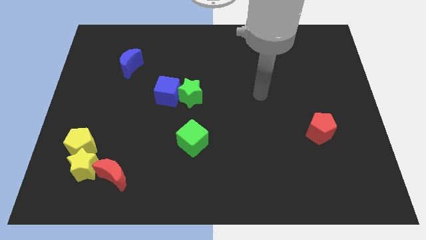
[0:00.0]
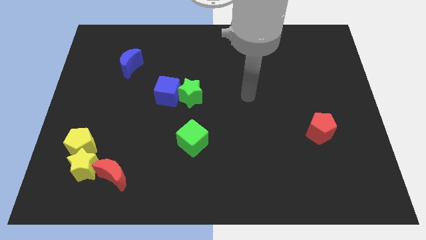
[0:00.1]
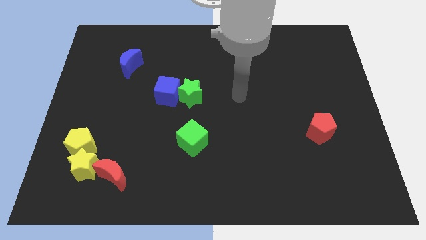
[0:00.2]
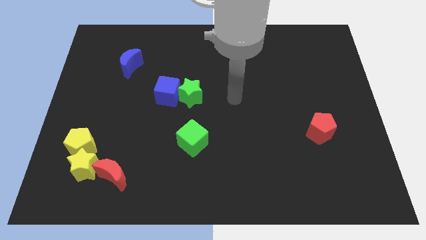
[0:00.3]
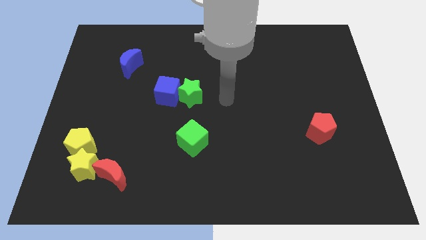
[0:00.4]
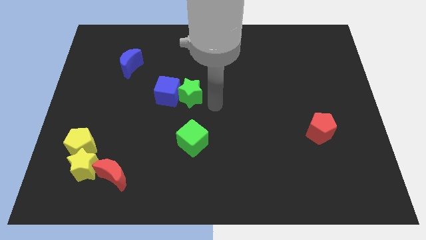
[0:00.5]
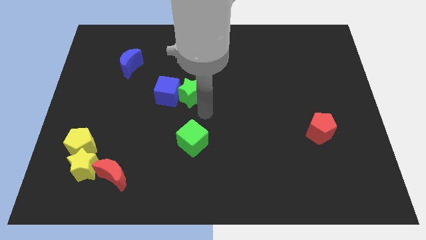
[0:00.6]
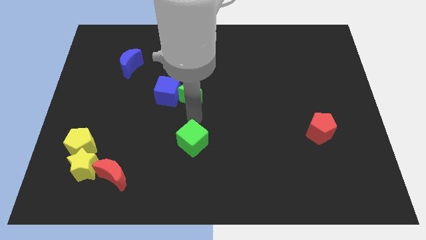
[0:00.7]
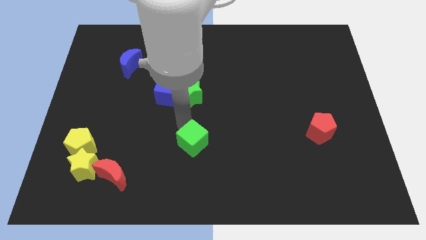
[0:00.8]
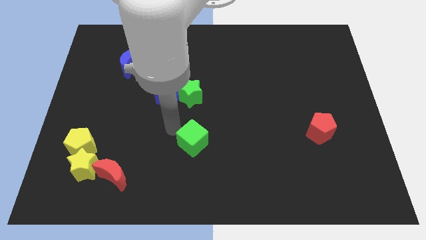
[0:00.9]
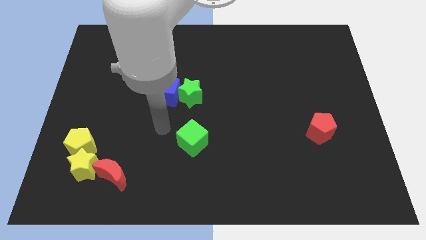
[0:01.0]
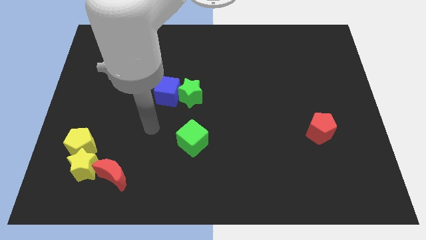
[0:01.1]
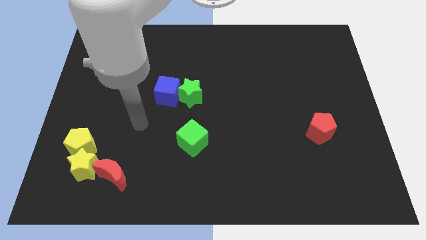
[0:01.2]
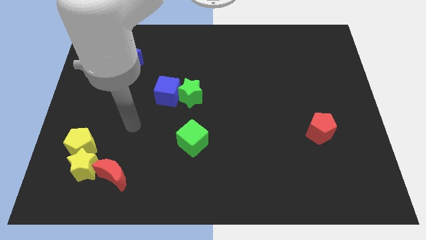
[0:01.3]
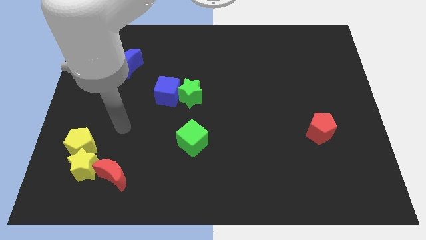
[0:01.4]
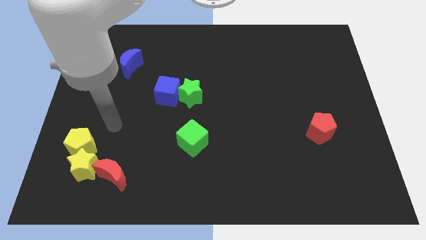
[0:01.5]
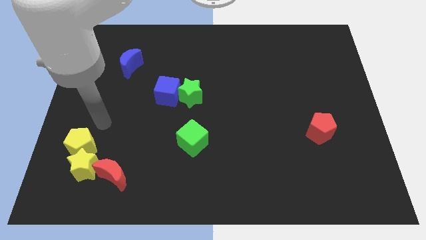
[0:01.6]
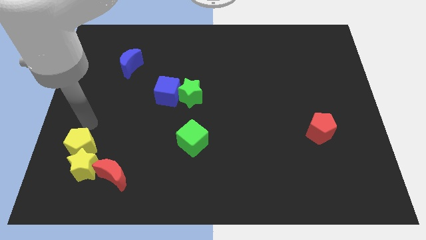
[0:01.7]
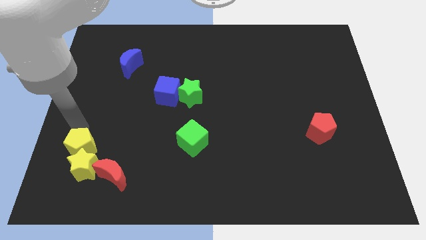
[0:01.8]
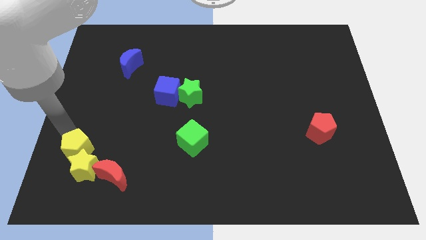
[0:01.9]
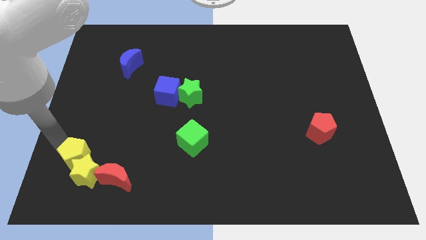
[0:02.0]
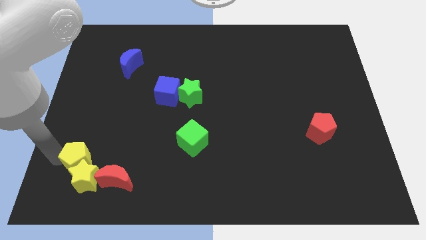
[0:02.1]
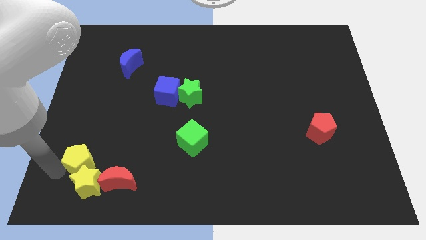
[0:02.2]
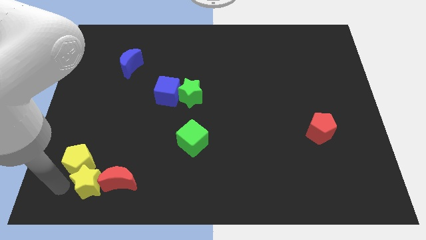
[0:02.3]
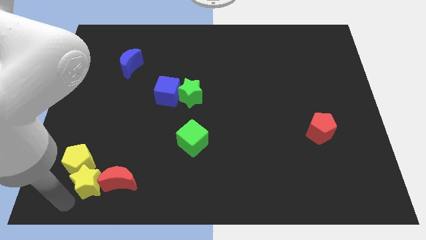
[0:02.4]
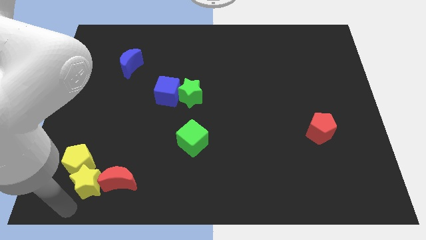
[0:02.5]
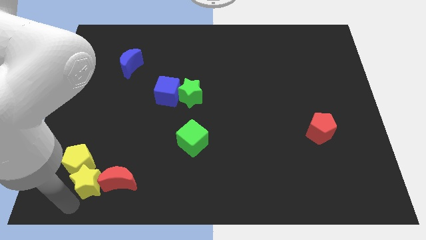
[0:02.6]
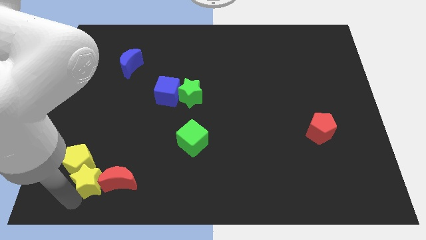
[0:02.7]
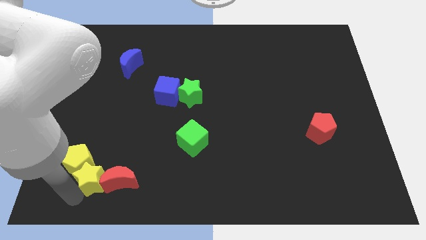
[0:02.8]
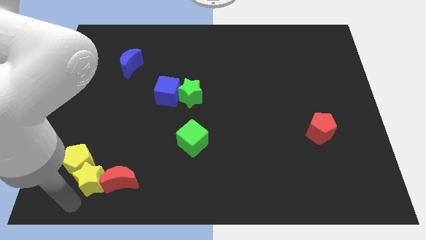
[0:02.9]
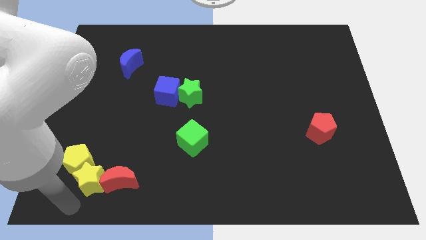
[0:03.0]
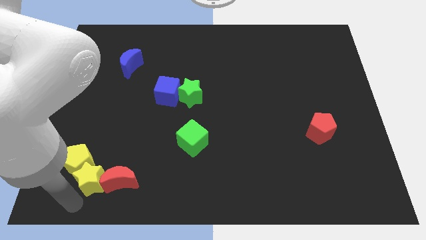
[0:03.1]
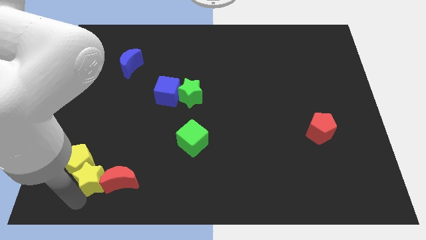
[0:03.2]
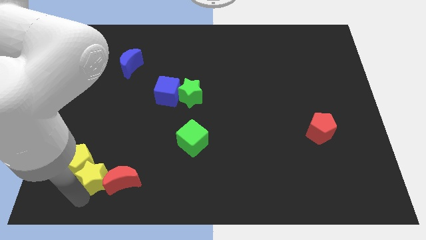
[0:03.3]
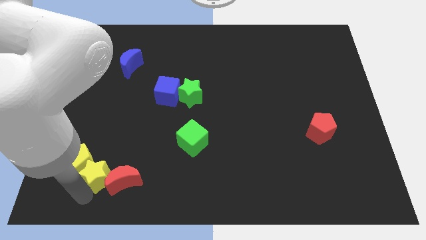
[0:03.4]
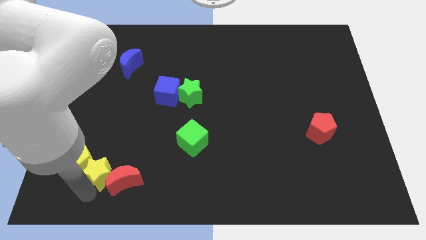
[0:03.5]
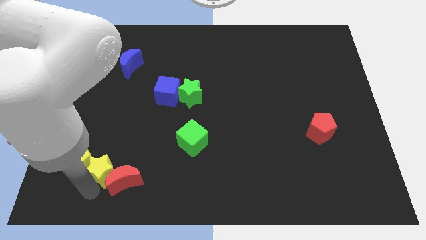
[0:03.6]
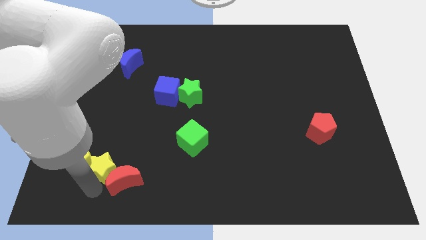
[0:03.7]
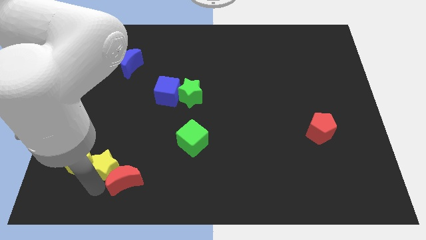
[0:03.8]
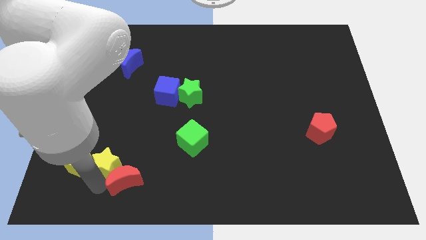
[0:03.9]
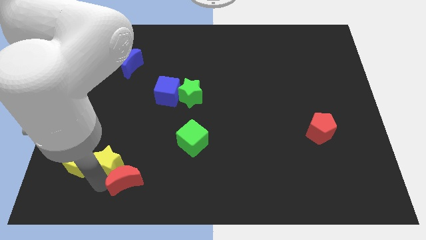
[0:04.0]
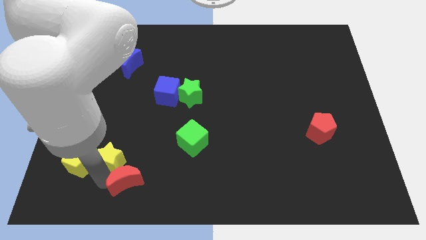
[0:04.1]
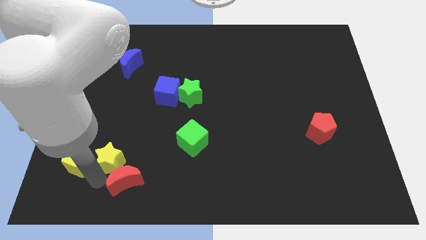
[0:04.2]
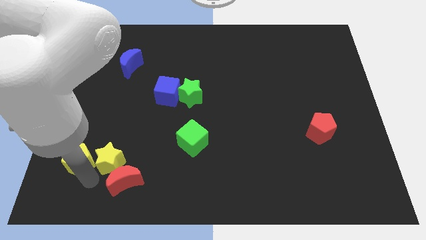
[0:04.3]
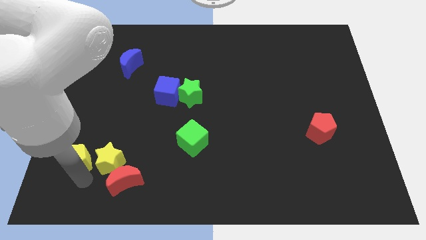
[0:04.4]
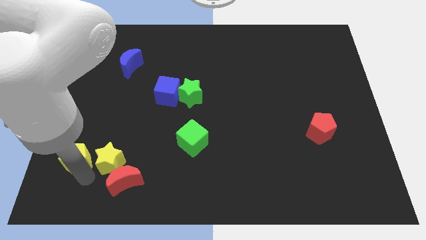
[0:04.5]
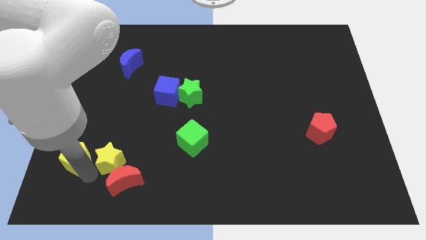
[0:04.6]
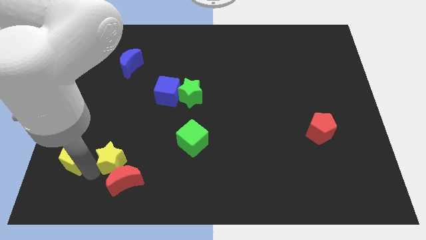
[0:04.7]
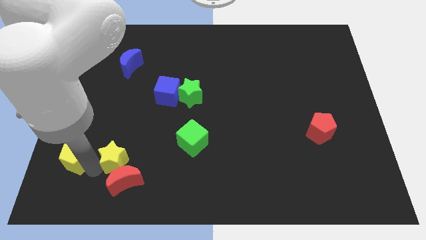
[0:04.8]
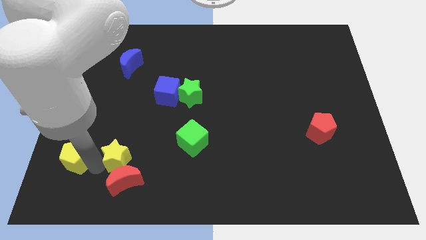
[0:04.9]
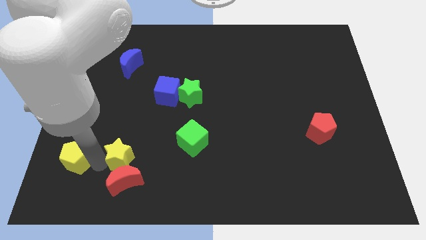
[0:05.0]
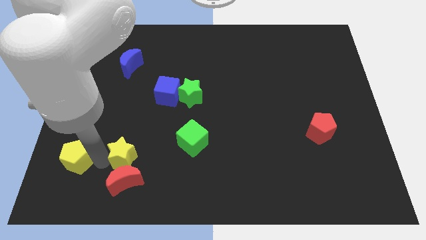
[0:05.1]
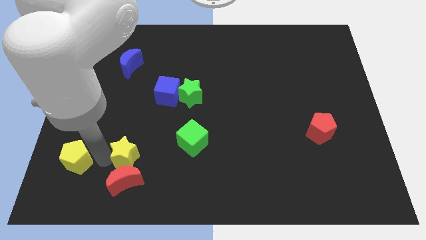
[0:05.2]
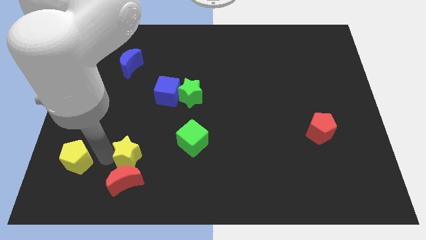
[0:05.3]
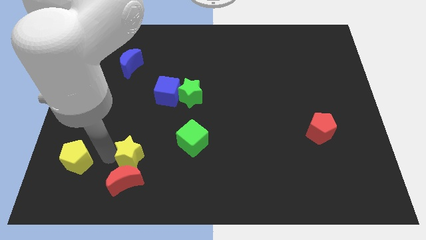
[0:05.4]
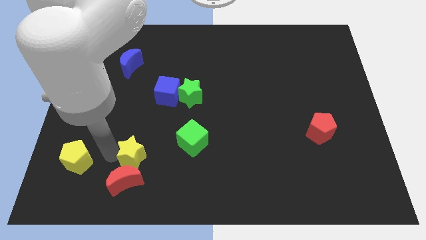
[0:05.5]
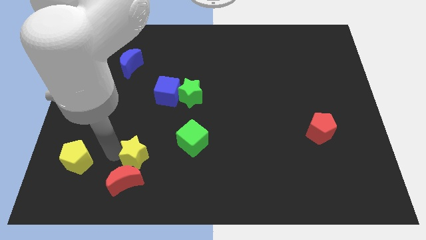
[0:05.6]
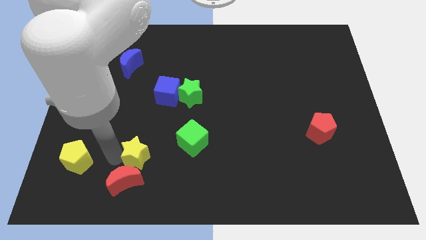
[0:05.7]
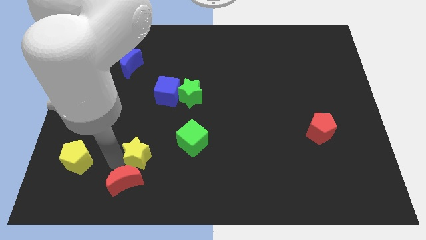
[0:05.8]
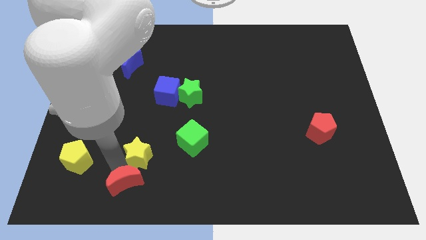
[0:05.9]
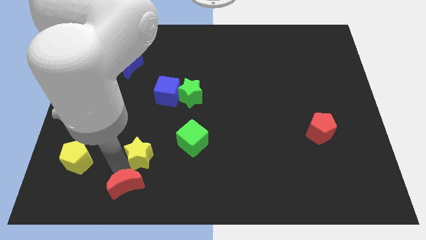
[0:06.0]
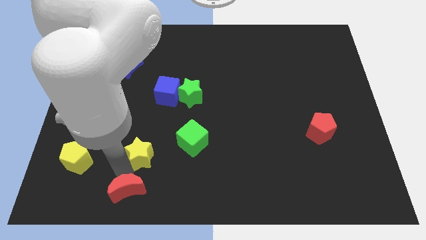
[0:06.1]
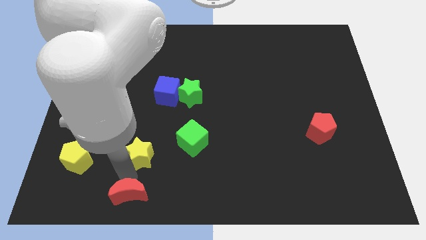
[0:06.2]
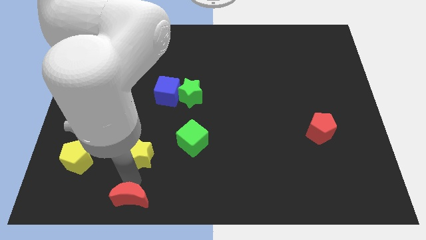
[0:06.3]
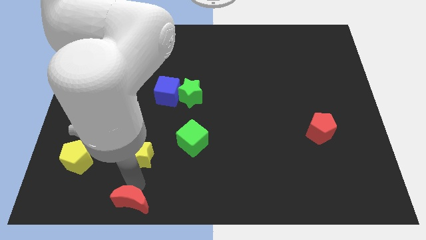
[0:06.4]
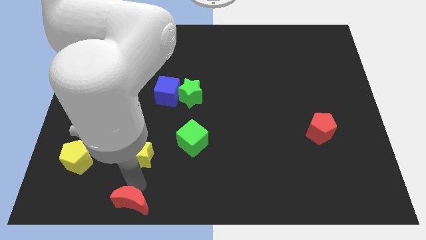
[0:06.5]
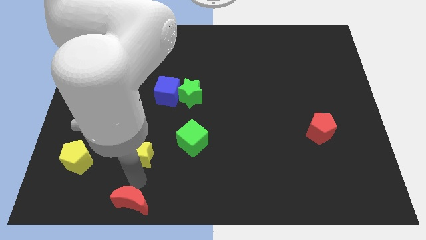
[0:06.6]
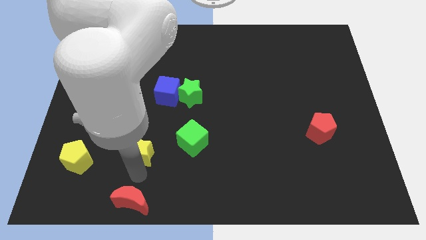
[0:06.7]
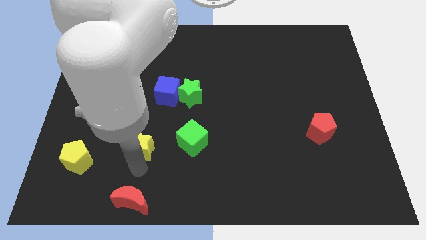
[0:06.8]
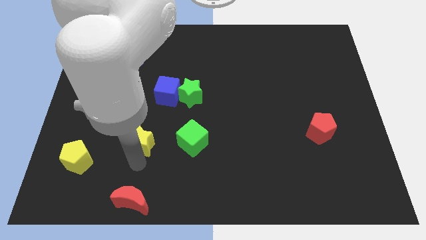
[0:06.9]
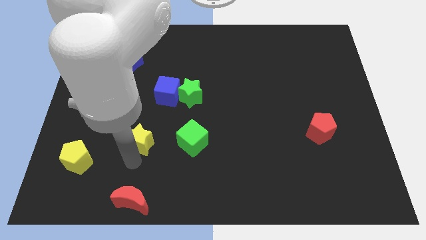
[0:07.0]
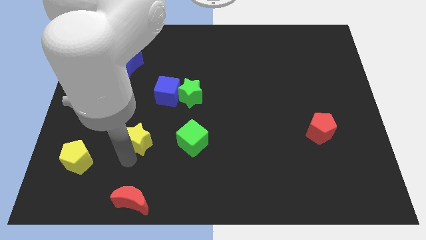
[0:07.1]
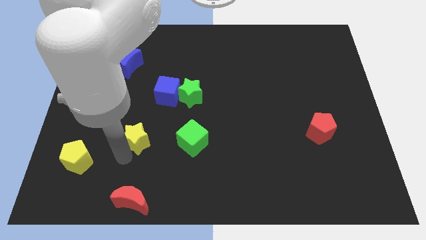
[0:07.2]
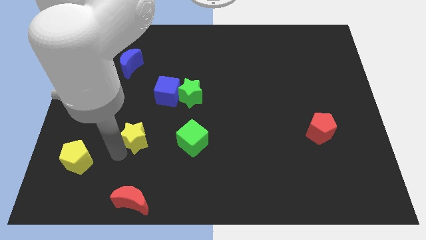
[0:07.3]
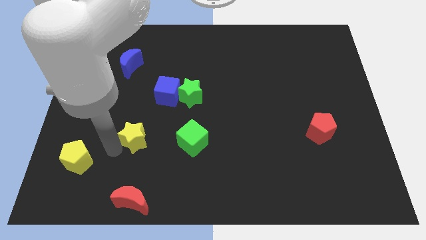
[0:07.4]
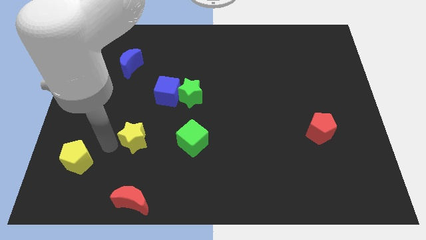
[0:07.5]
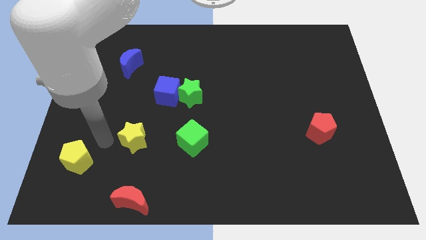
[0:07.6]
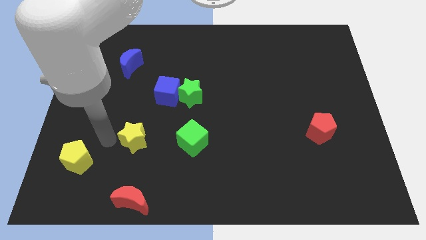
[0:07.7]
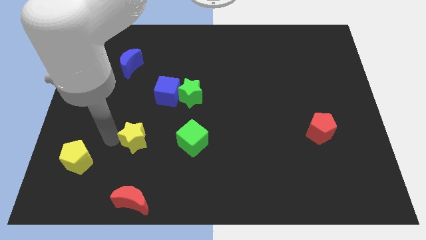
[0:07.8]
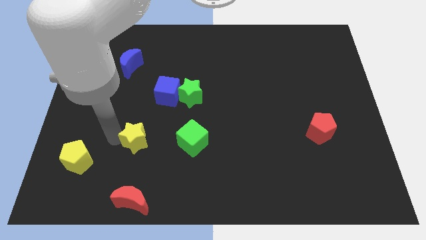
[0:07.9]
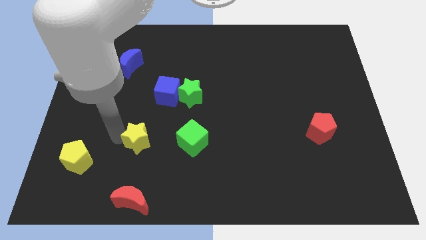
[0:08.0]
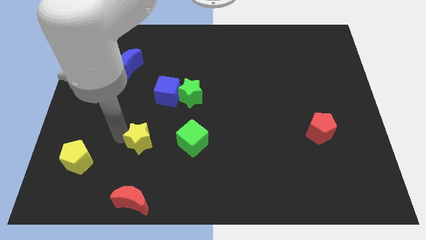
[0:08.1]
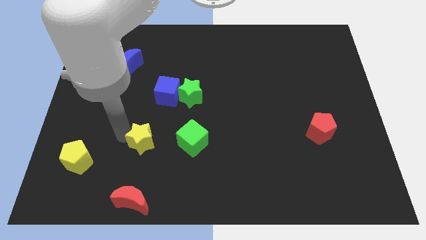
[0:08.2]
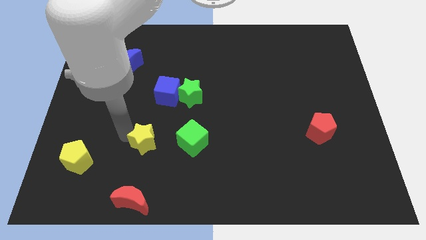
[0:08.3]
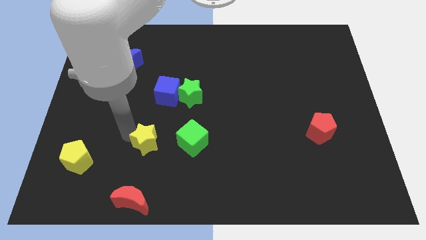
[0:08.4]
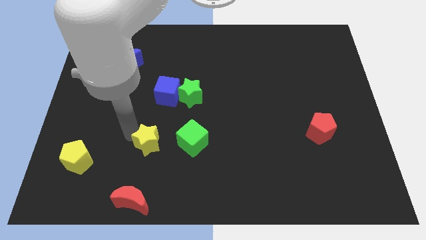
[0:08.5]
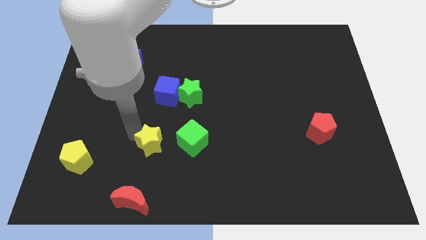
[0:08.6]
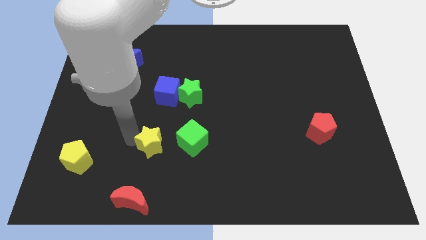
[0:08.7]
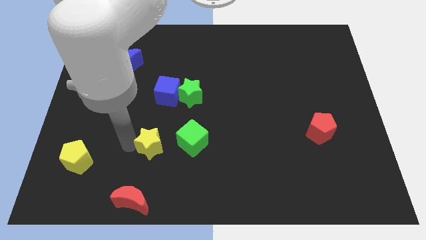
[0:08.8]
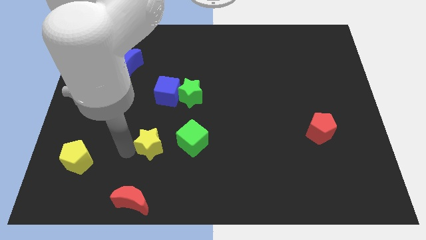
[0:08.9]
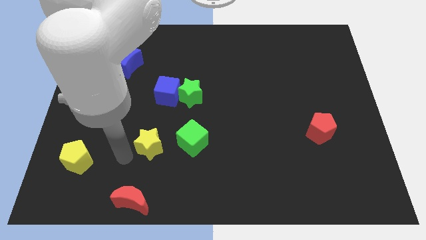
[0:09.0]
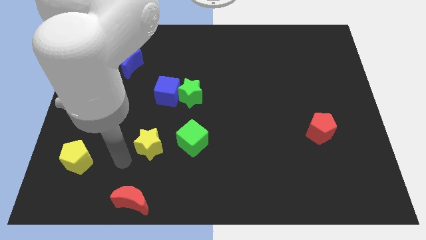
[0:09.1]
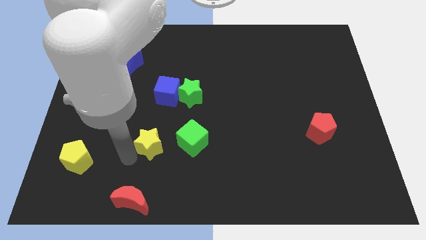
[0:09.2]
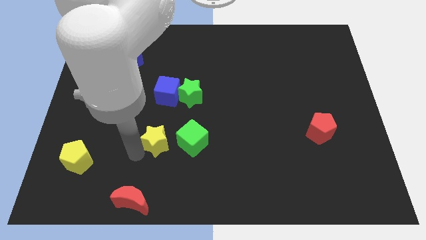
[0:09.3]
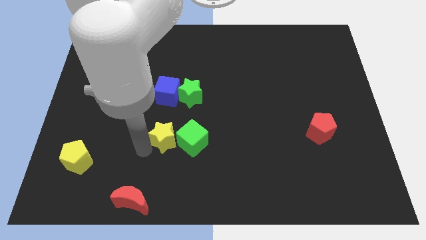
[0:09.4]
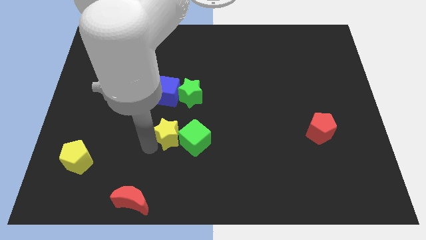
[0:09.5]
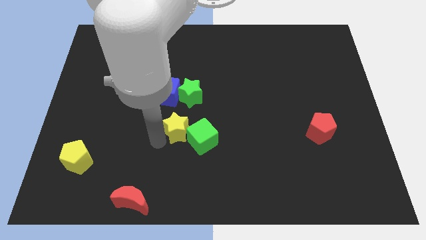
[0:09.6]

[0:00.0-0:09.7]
move the yellow star to the middle of the board
